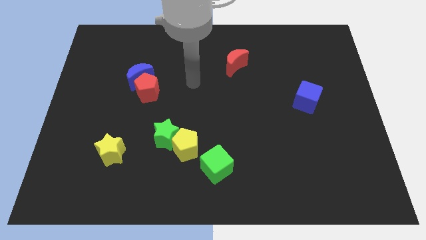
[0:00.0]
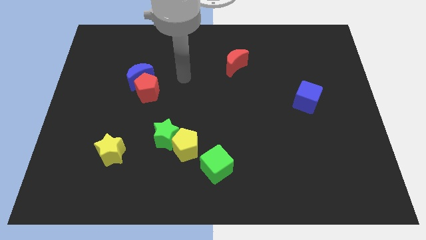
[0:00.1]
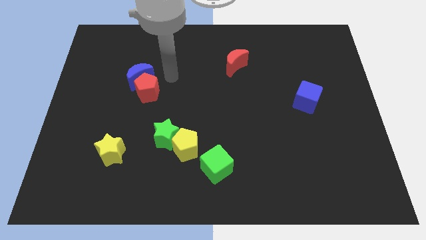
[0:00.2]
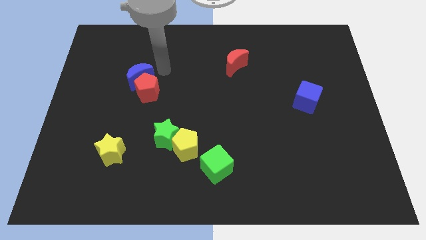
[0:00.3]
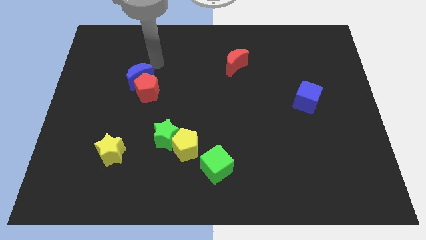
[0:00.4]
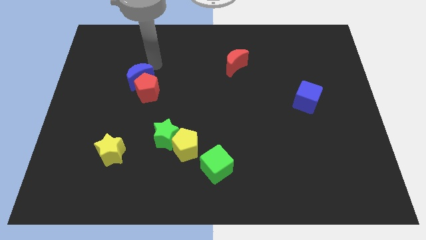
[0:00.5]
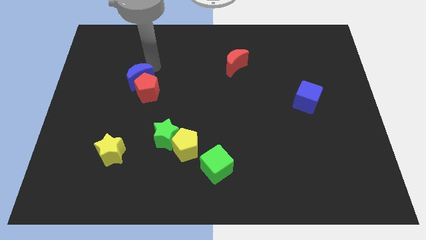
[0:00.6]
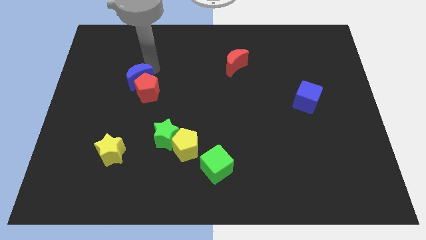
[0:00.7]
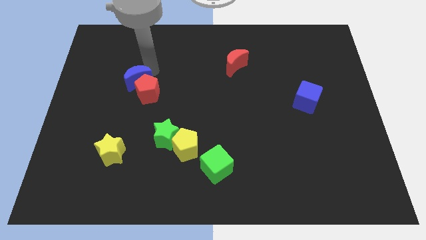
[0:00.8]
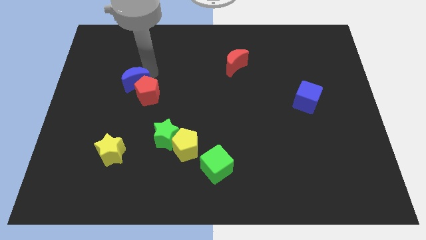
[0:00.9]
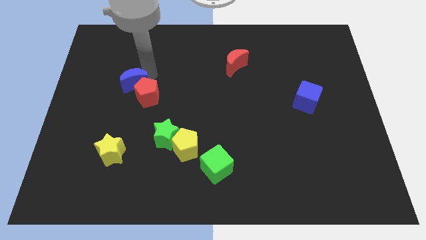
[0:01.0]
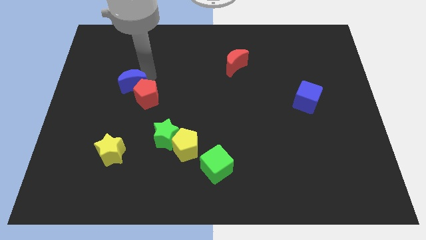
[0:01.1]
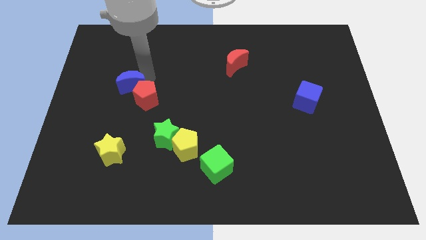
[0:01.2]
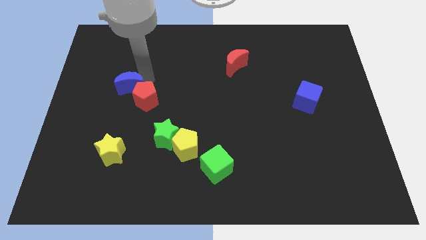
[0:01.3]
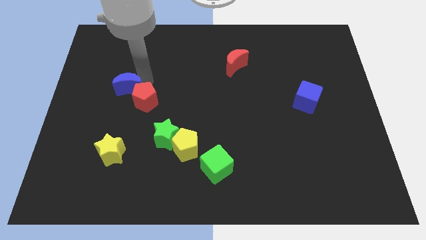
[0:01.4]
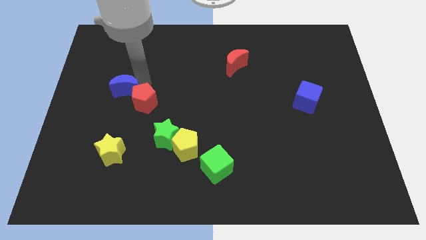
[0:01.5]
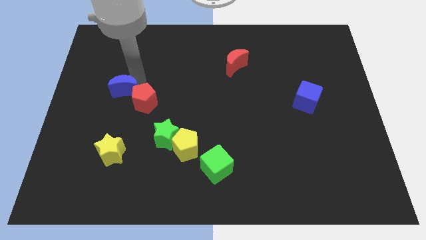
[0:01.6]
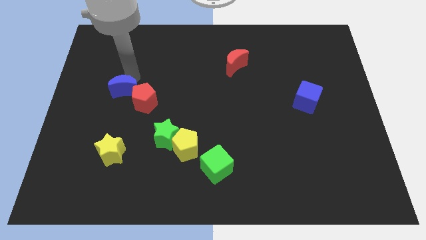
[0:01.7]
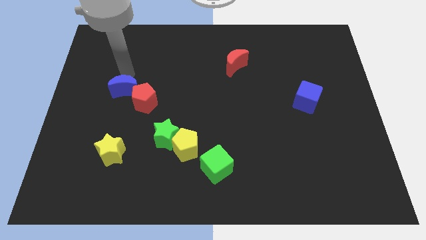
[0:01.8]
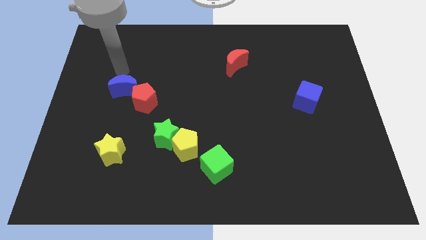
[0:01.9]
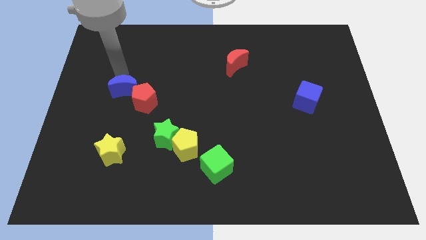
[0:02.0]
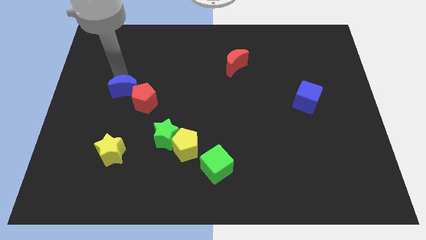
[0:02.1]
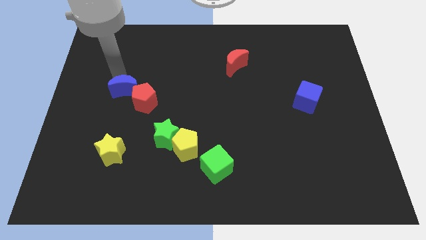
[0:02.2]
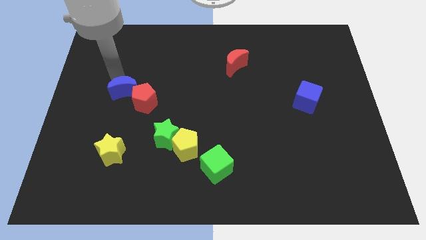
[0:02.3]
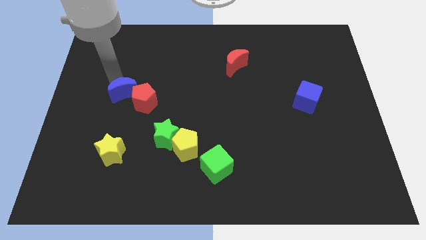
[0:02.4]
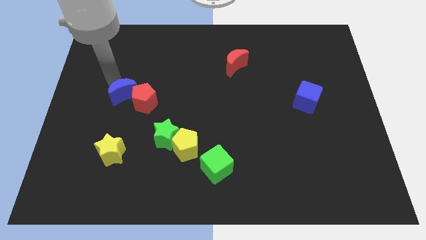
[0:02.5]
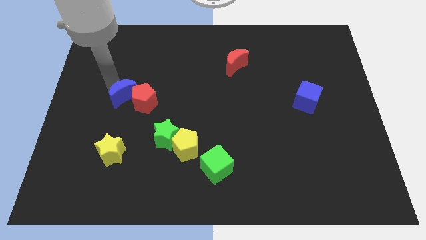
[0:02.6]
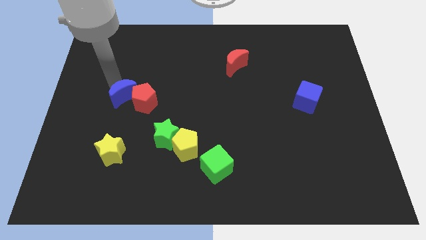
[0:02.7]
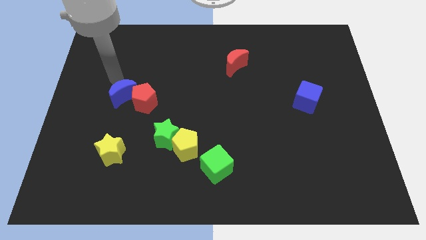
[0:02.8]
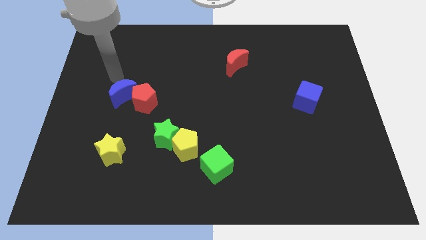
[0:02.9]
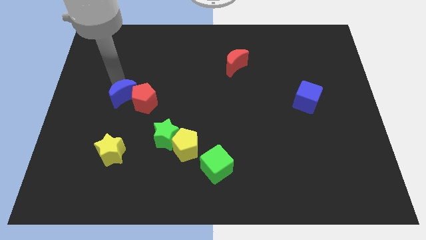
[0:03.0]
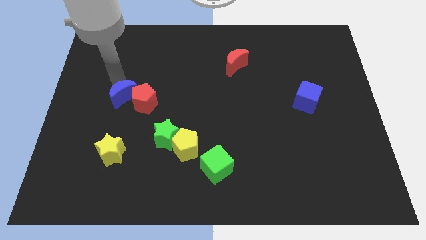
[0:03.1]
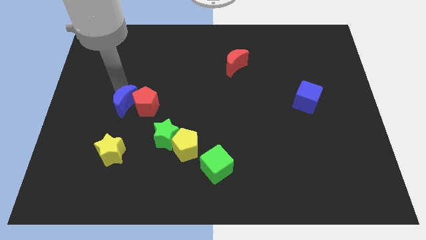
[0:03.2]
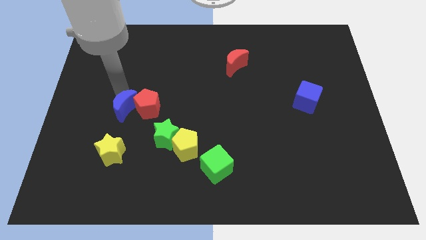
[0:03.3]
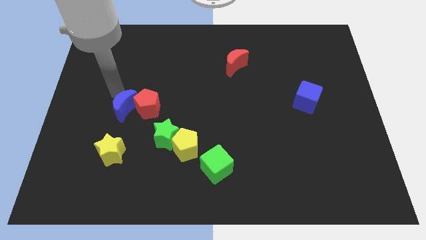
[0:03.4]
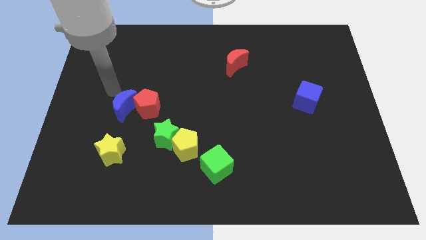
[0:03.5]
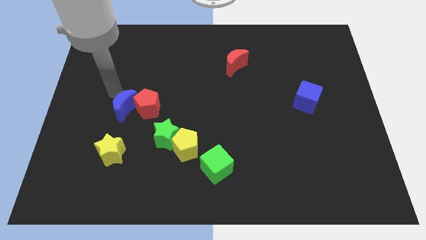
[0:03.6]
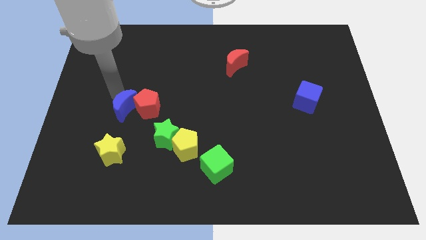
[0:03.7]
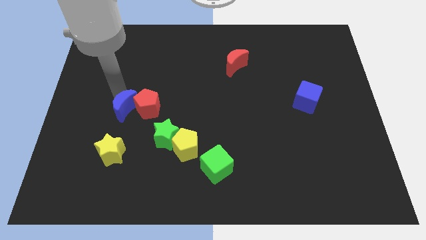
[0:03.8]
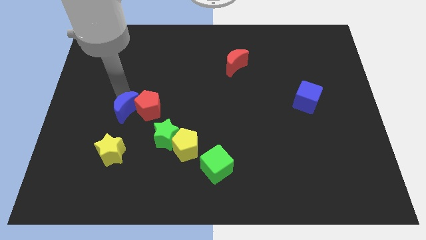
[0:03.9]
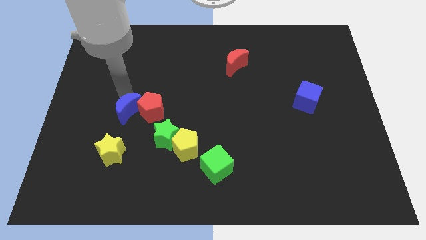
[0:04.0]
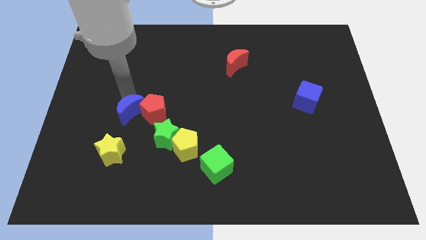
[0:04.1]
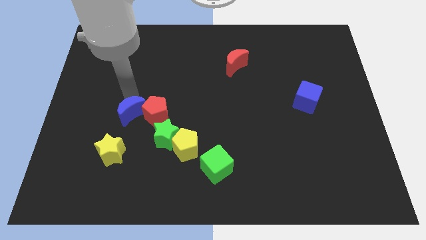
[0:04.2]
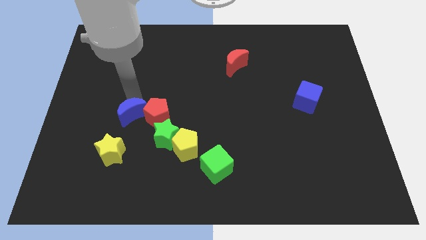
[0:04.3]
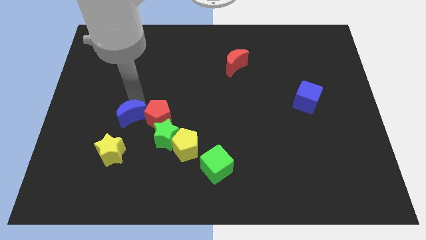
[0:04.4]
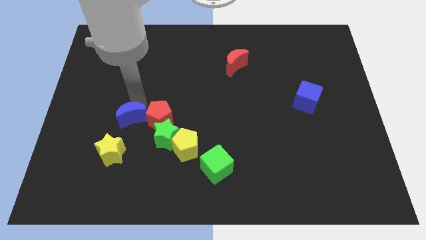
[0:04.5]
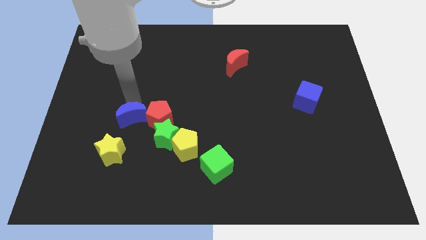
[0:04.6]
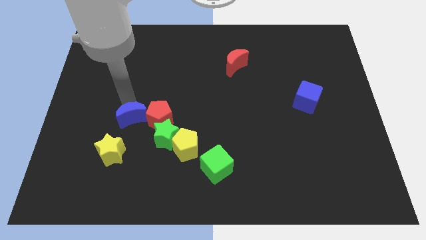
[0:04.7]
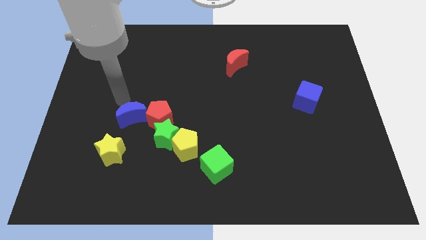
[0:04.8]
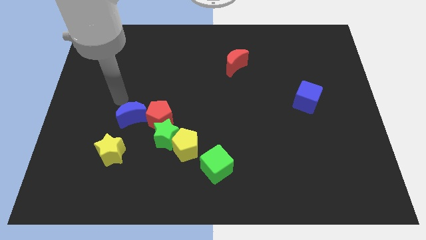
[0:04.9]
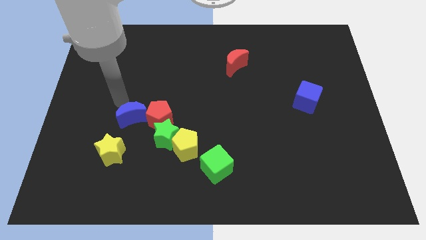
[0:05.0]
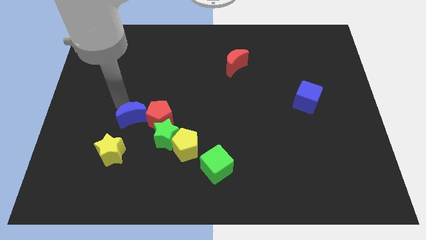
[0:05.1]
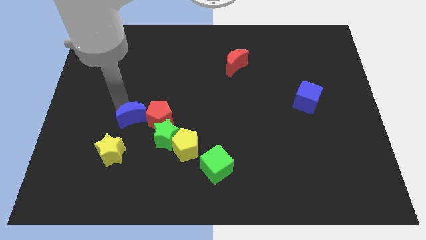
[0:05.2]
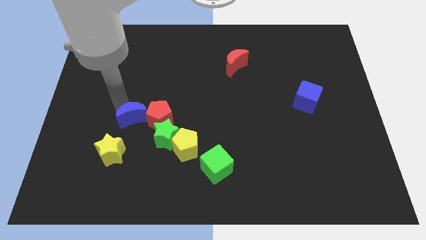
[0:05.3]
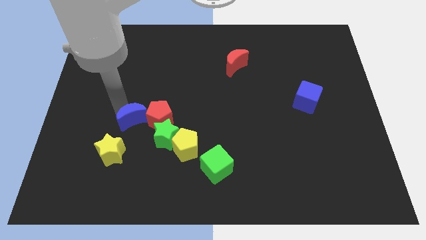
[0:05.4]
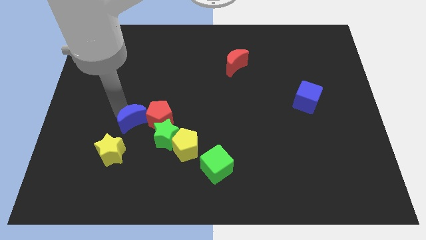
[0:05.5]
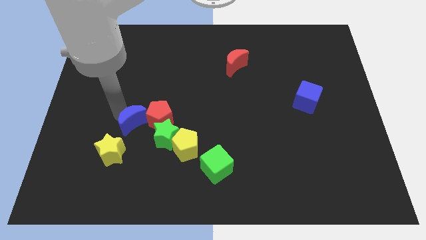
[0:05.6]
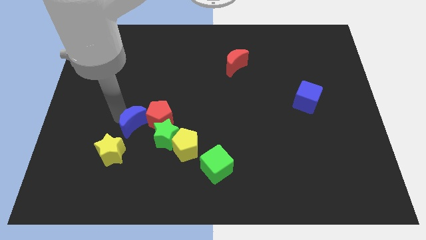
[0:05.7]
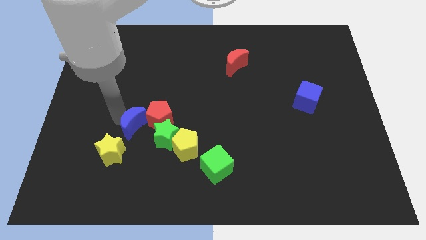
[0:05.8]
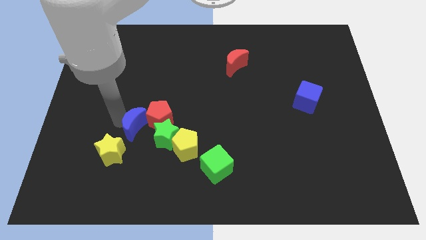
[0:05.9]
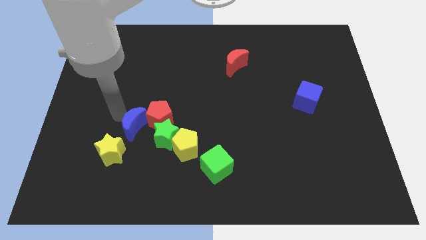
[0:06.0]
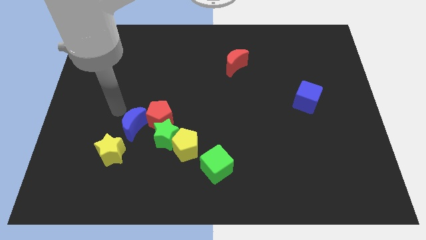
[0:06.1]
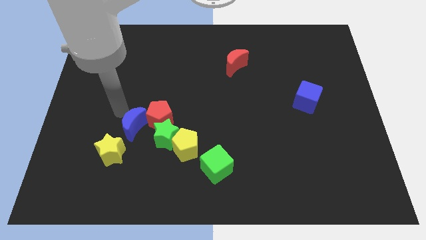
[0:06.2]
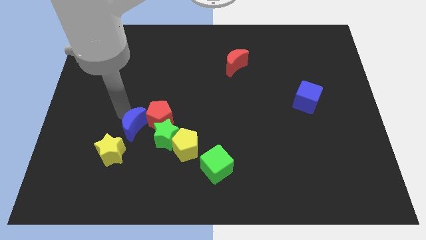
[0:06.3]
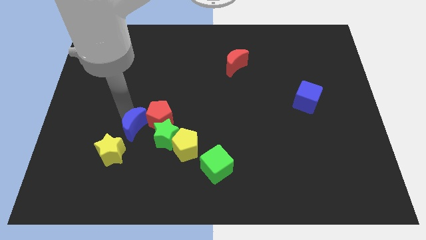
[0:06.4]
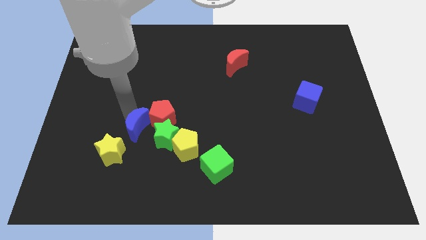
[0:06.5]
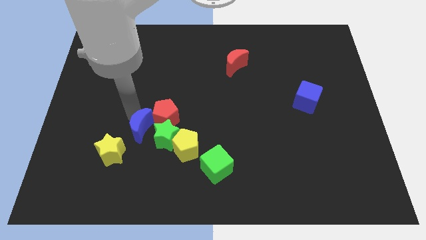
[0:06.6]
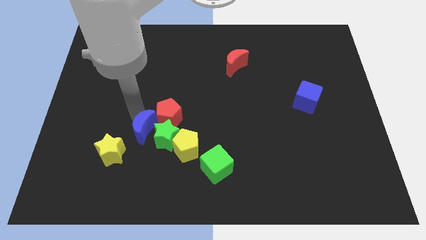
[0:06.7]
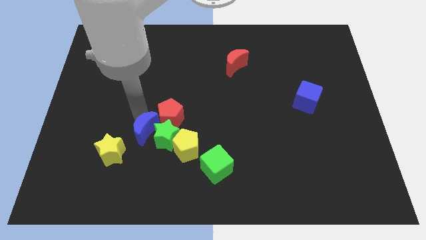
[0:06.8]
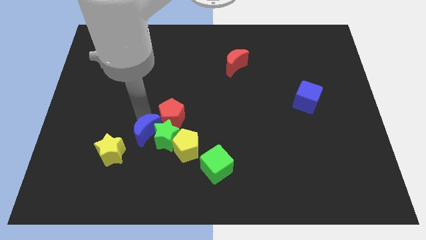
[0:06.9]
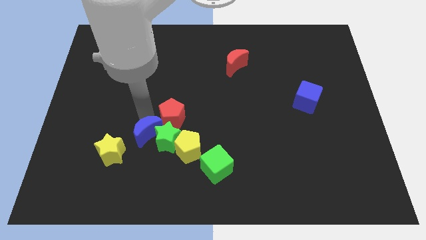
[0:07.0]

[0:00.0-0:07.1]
slide the blue moon to the right of the yellow star
